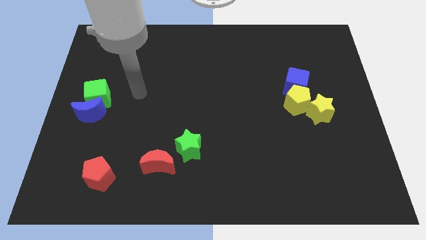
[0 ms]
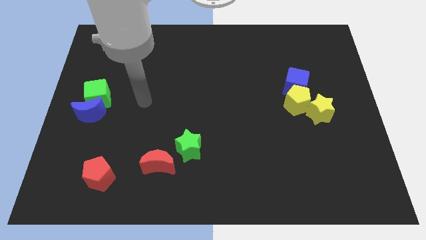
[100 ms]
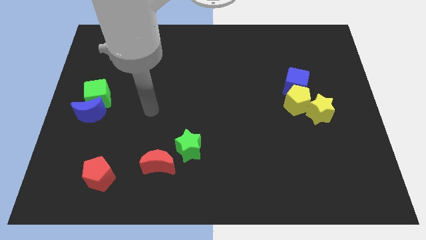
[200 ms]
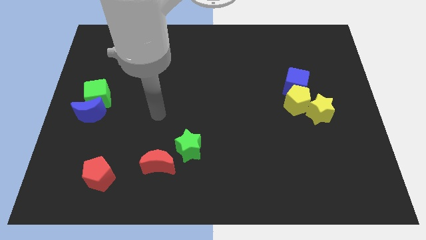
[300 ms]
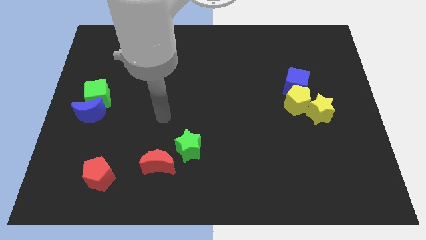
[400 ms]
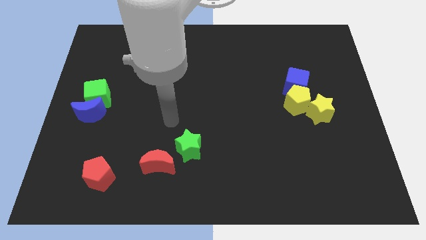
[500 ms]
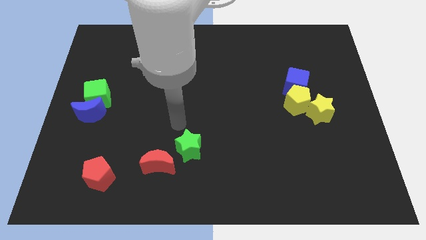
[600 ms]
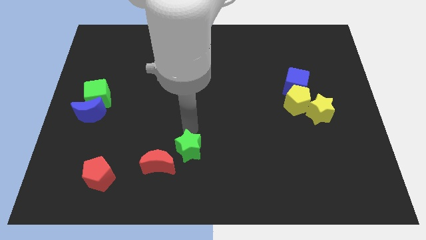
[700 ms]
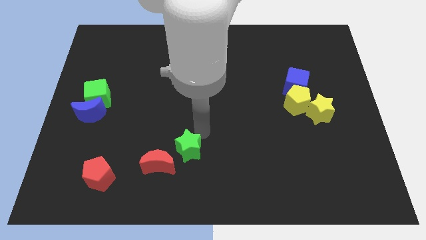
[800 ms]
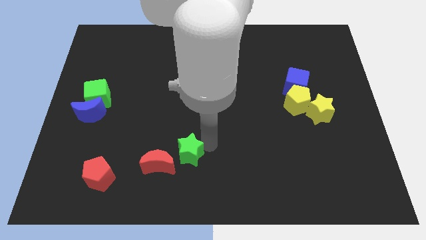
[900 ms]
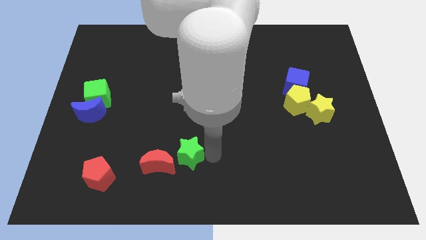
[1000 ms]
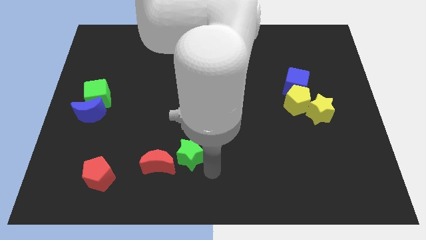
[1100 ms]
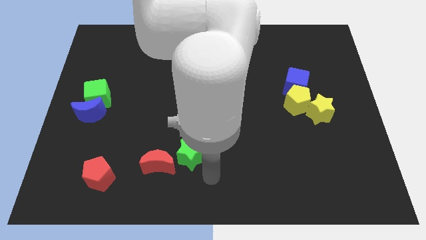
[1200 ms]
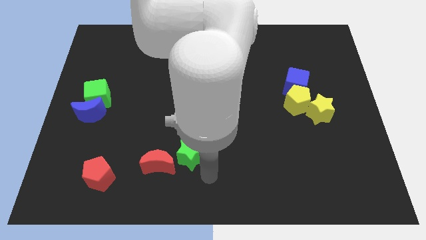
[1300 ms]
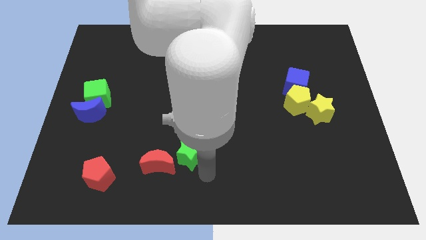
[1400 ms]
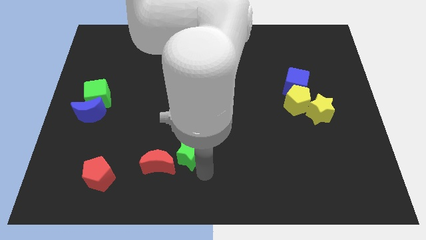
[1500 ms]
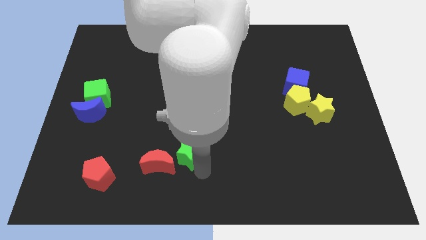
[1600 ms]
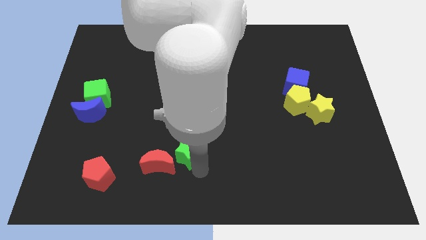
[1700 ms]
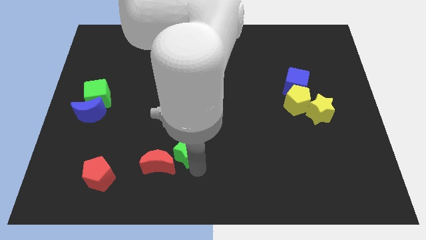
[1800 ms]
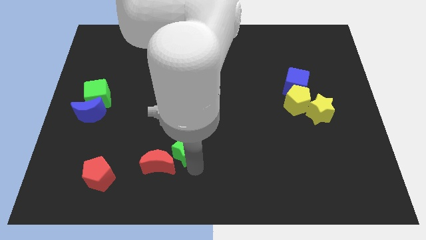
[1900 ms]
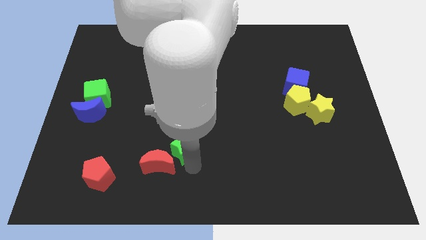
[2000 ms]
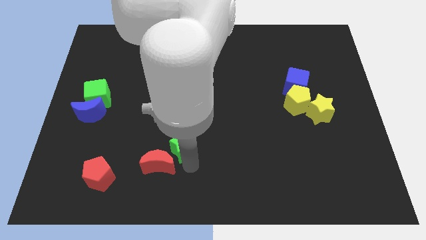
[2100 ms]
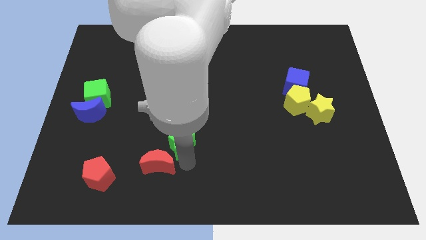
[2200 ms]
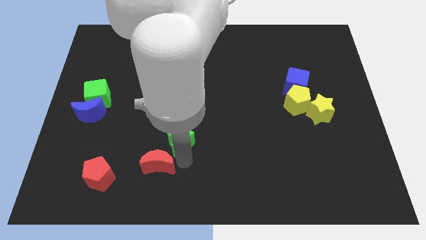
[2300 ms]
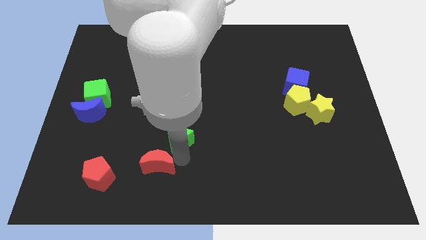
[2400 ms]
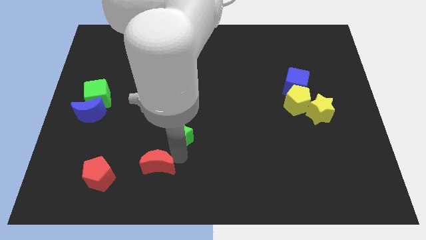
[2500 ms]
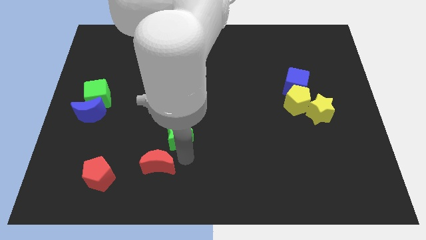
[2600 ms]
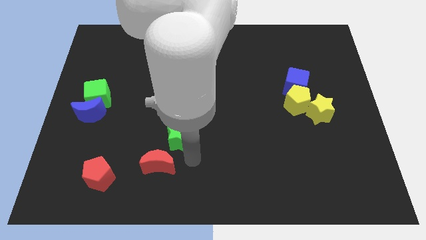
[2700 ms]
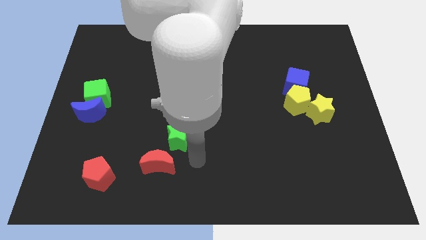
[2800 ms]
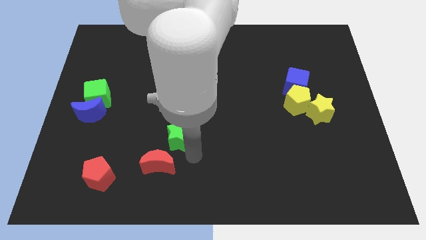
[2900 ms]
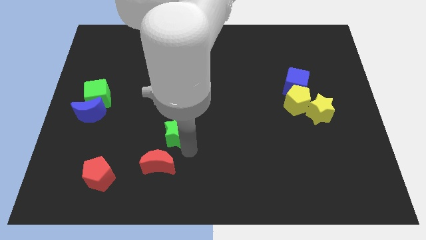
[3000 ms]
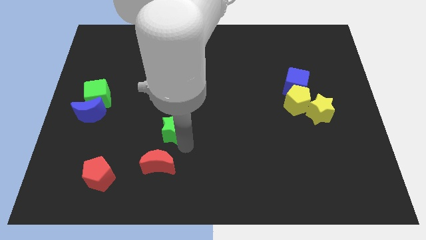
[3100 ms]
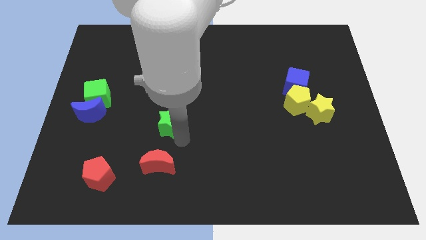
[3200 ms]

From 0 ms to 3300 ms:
push the green star upwards and left diagonally somewhat

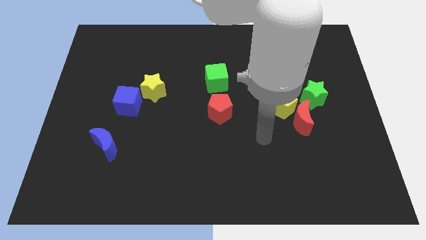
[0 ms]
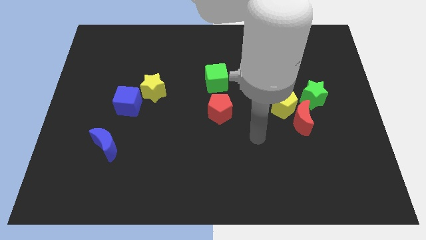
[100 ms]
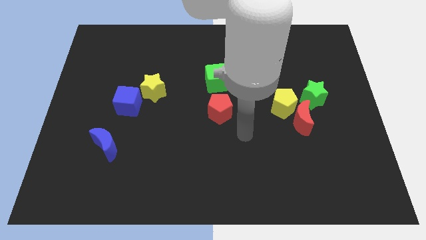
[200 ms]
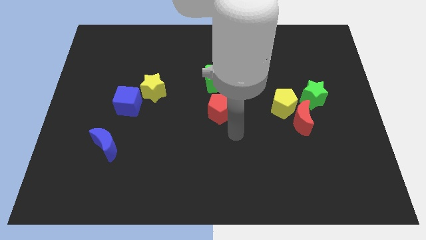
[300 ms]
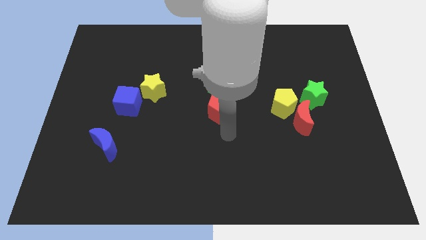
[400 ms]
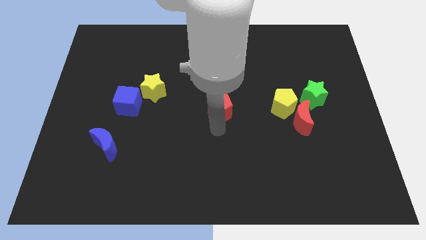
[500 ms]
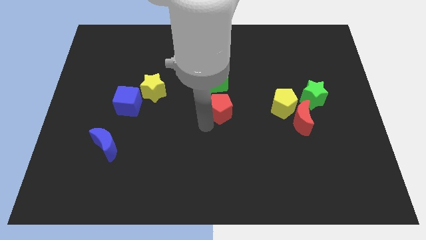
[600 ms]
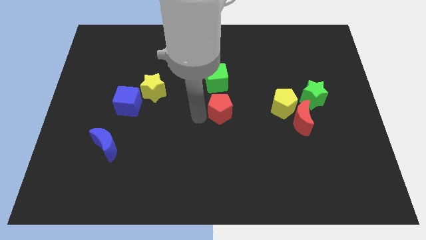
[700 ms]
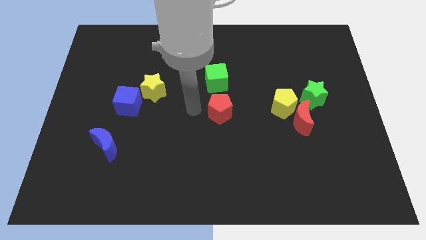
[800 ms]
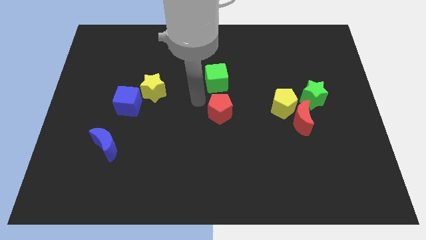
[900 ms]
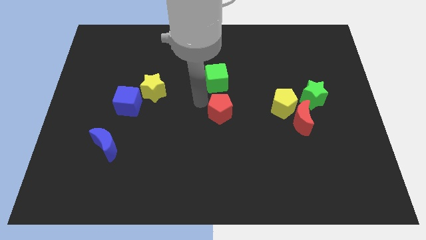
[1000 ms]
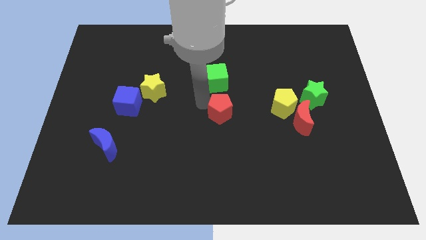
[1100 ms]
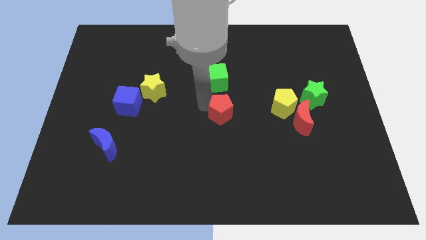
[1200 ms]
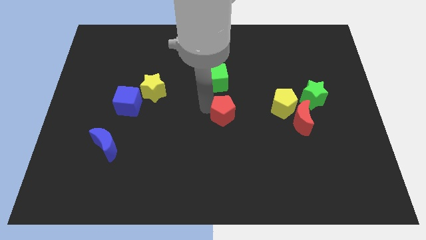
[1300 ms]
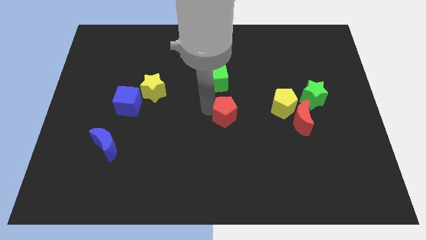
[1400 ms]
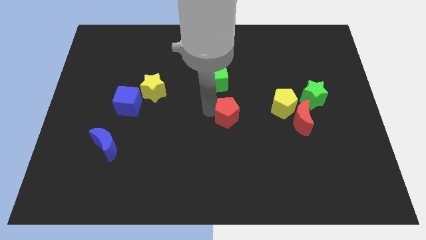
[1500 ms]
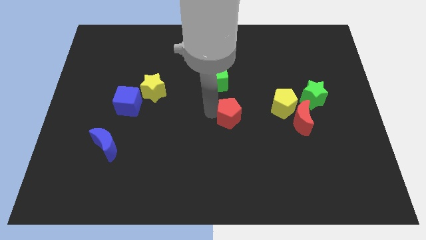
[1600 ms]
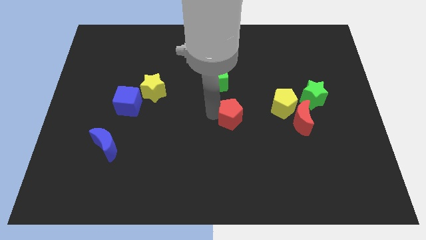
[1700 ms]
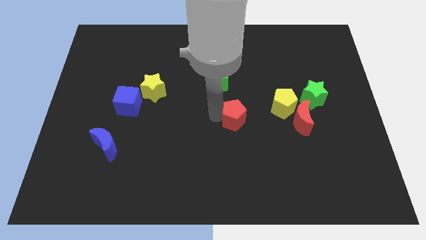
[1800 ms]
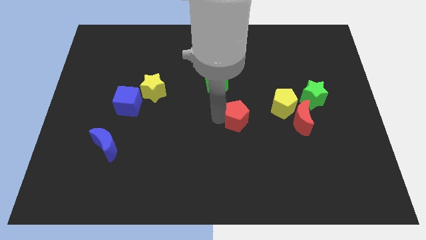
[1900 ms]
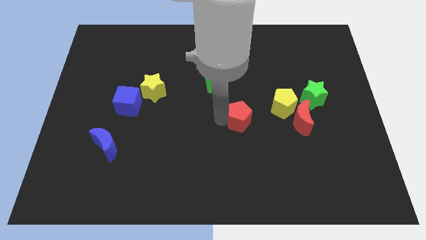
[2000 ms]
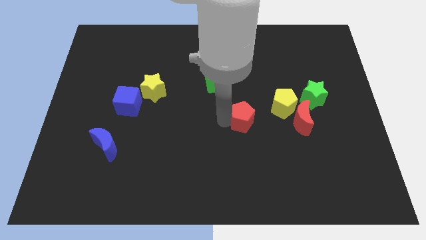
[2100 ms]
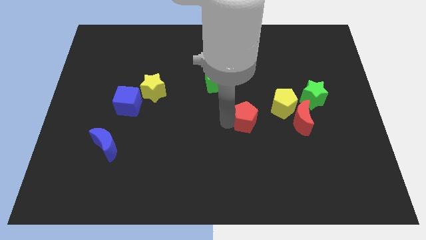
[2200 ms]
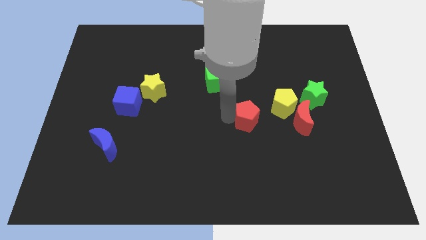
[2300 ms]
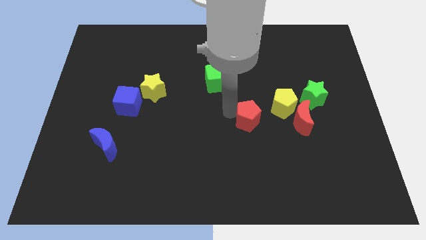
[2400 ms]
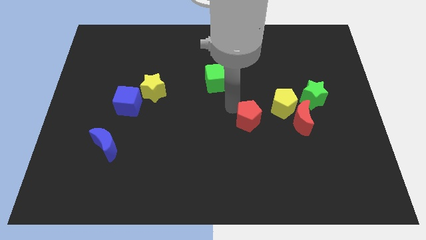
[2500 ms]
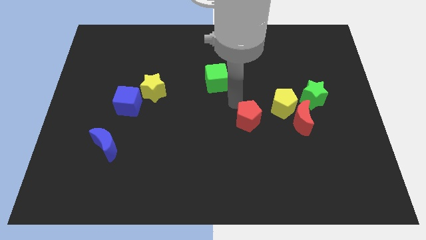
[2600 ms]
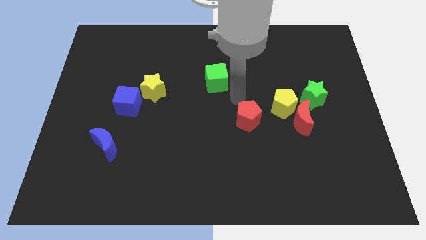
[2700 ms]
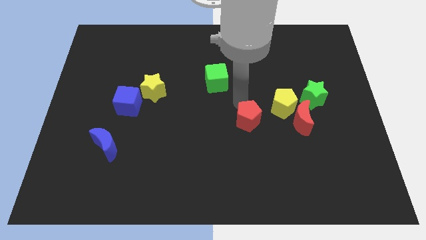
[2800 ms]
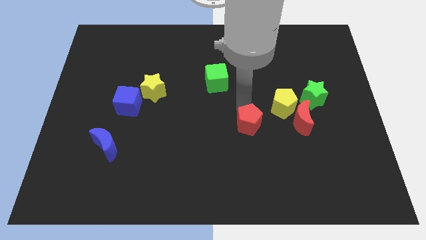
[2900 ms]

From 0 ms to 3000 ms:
slightly move the red pentagon down and right

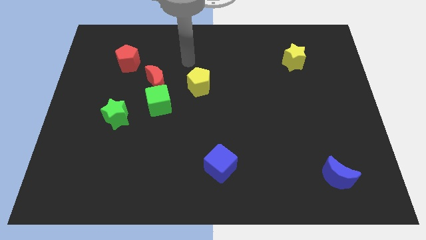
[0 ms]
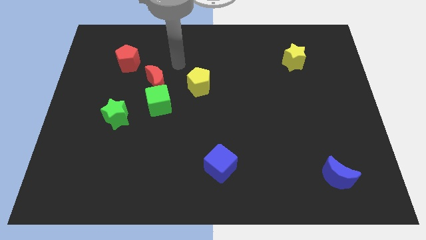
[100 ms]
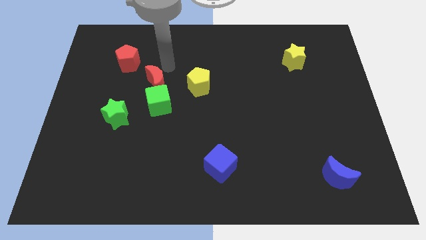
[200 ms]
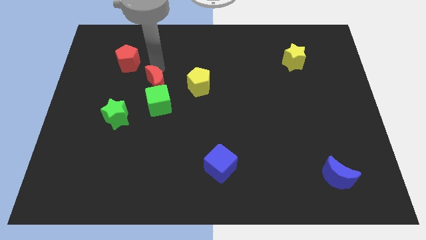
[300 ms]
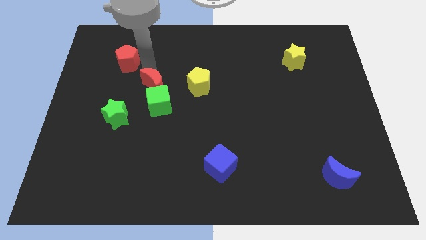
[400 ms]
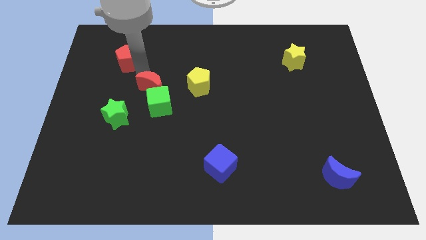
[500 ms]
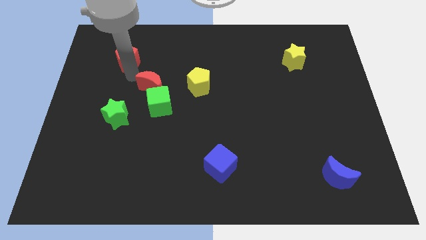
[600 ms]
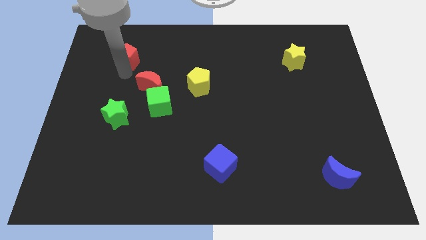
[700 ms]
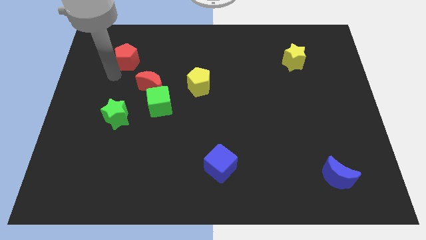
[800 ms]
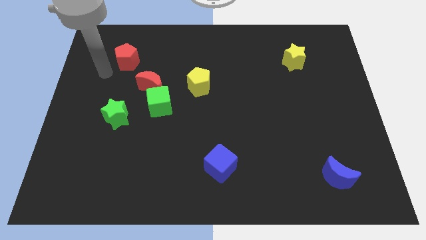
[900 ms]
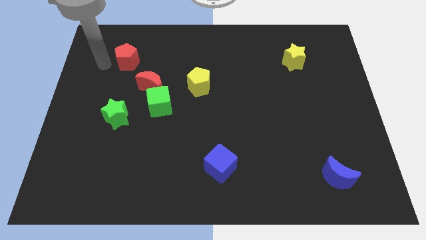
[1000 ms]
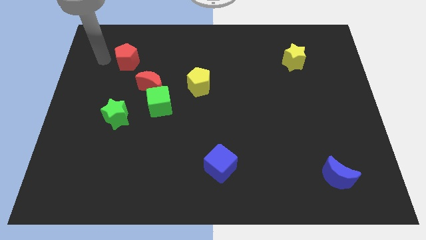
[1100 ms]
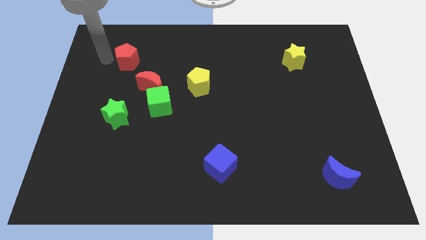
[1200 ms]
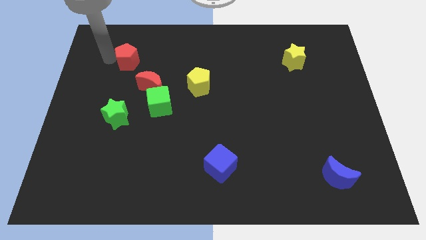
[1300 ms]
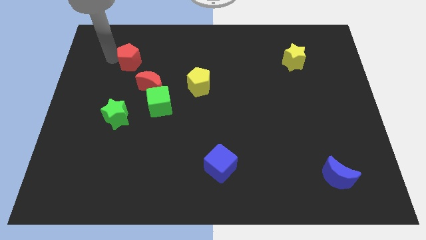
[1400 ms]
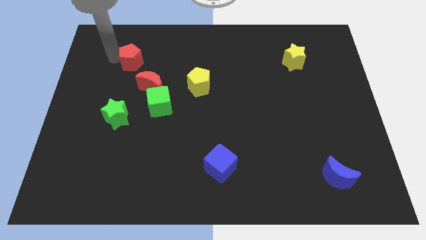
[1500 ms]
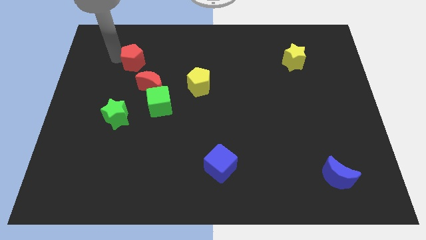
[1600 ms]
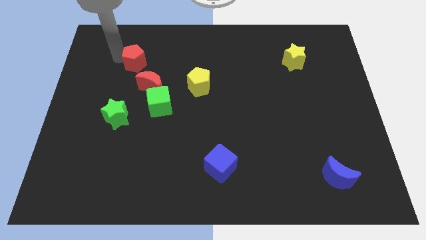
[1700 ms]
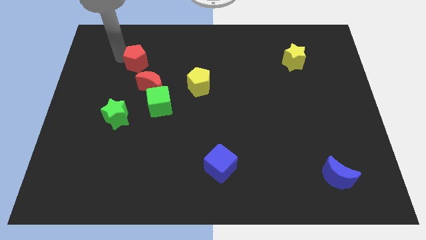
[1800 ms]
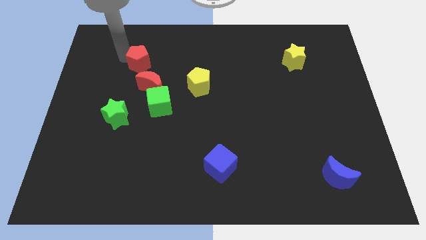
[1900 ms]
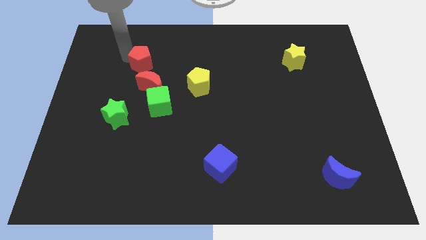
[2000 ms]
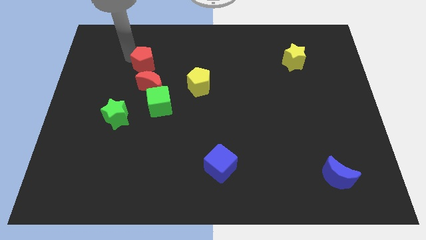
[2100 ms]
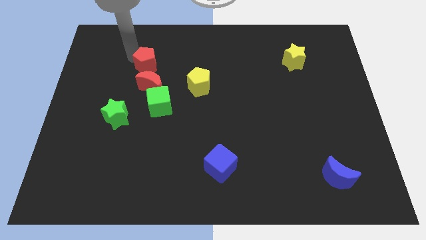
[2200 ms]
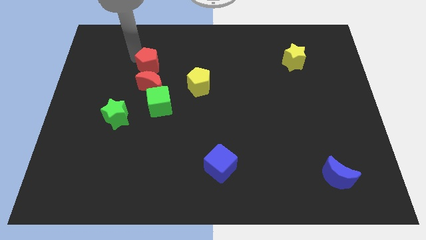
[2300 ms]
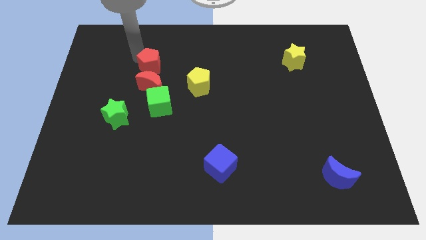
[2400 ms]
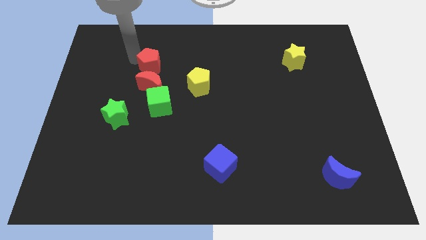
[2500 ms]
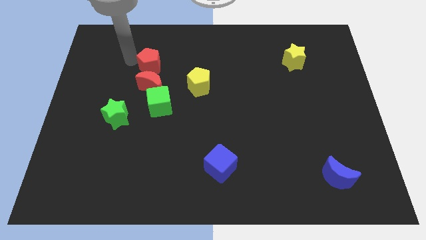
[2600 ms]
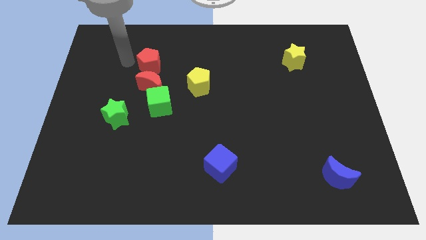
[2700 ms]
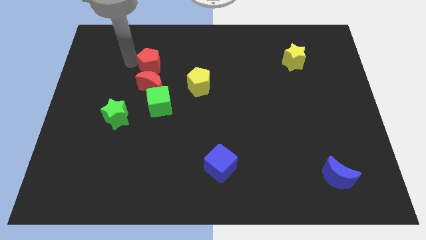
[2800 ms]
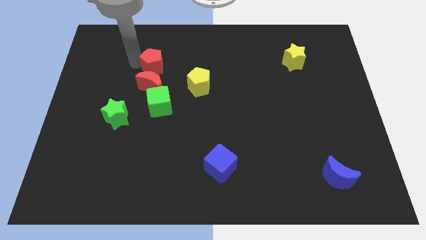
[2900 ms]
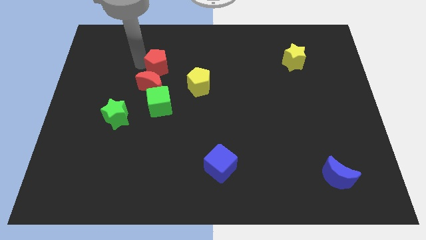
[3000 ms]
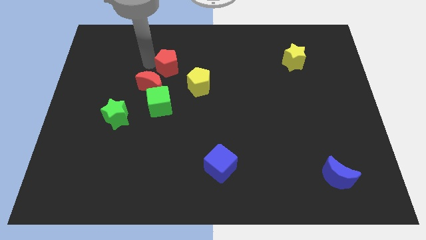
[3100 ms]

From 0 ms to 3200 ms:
slightly move the red pentagon diagonally down and to the right
